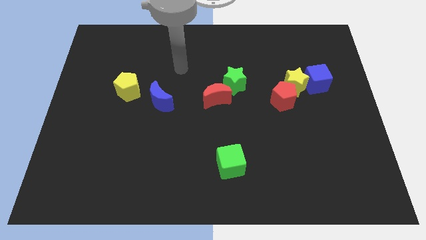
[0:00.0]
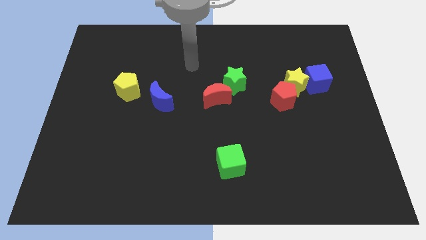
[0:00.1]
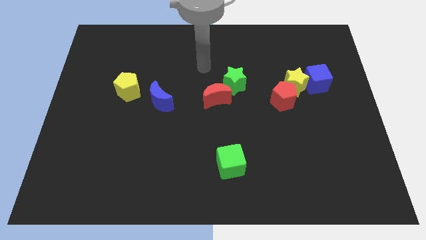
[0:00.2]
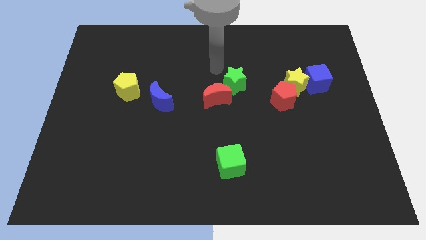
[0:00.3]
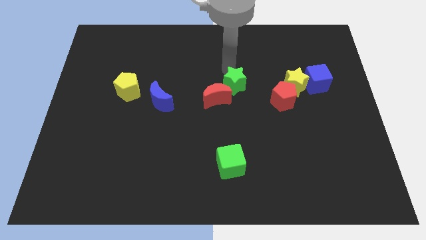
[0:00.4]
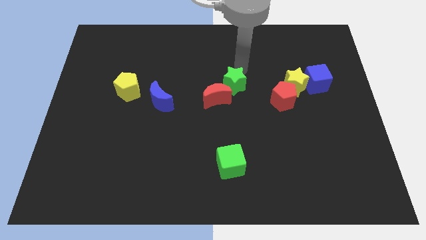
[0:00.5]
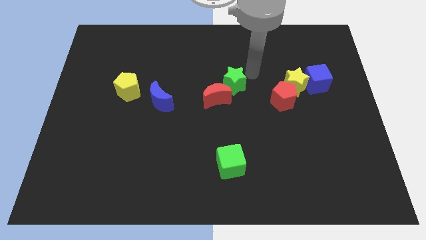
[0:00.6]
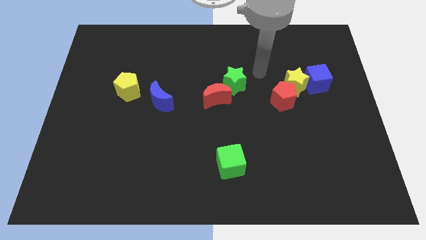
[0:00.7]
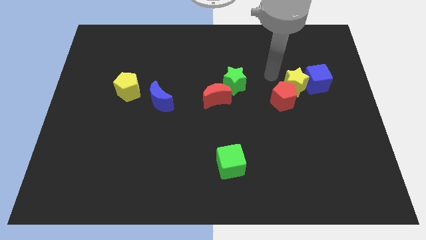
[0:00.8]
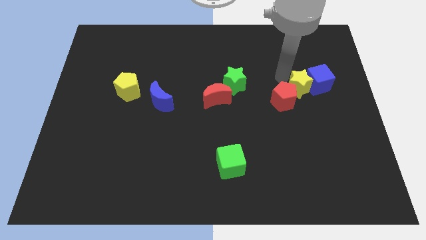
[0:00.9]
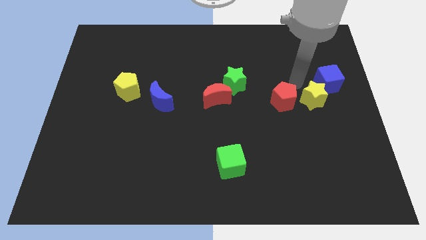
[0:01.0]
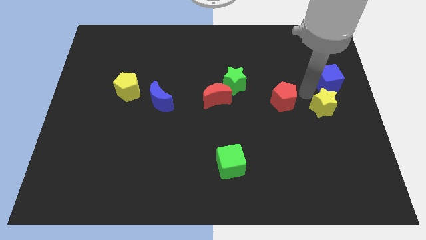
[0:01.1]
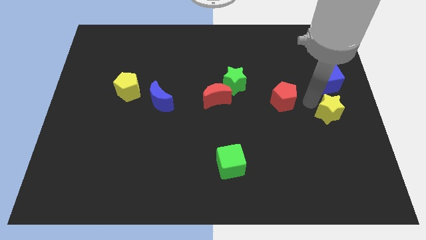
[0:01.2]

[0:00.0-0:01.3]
separate the red pentagon from the yellow star

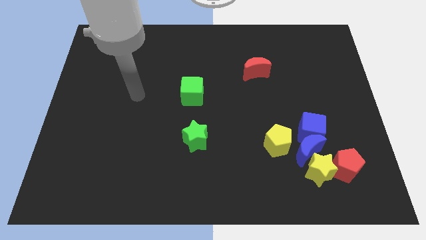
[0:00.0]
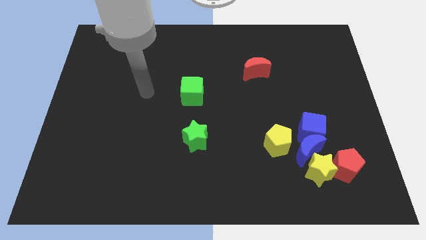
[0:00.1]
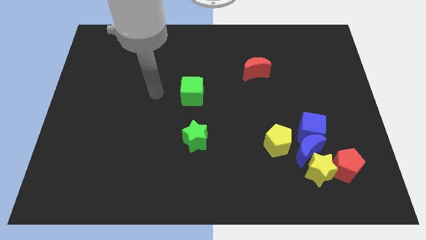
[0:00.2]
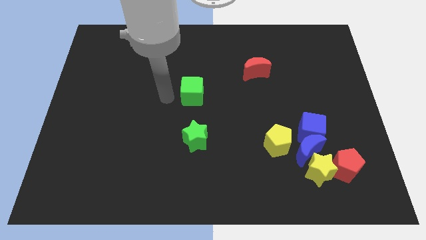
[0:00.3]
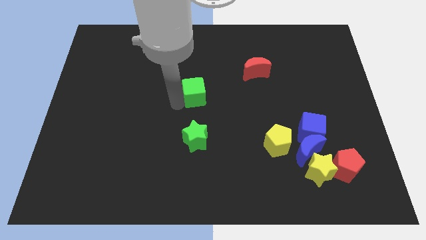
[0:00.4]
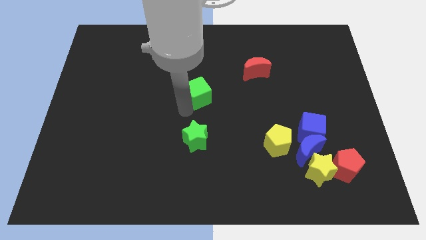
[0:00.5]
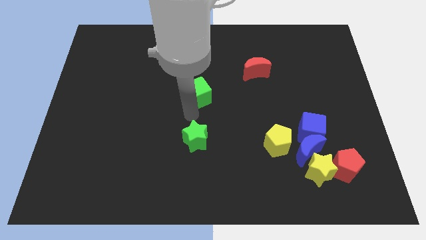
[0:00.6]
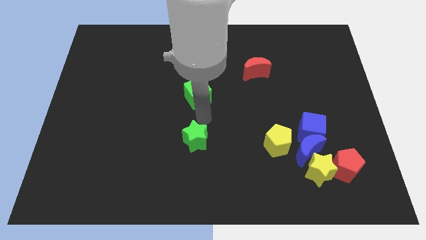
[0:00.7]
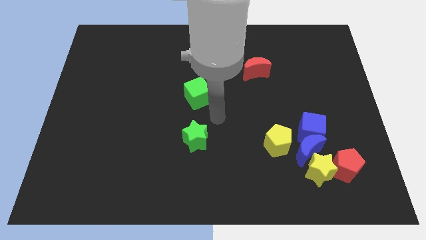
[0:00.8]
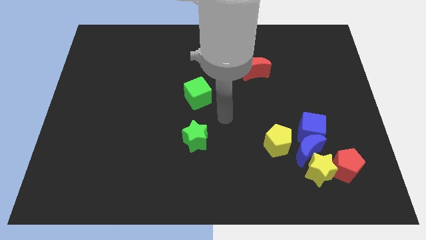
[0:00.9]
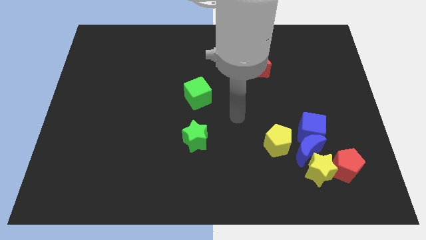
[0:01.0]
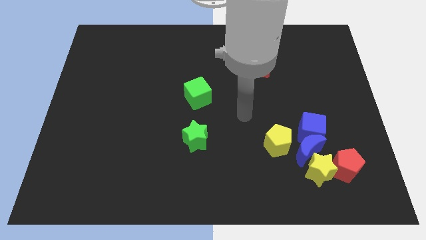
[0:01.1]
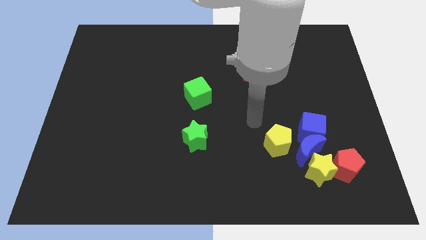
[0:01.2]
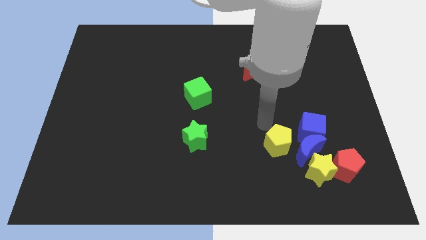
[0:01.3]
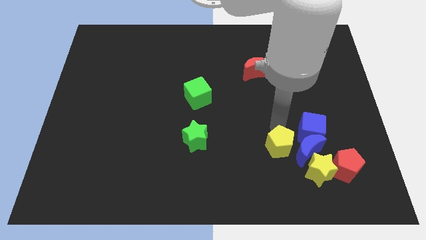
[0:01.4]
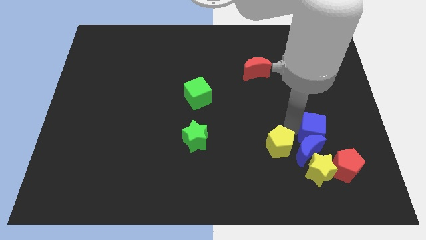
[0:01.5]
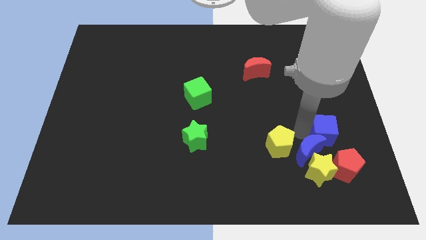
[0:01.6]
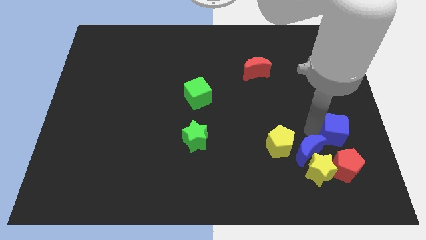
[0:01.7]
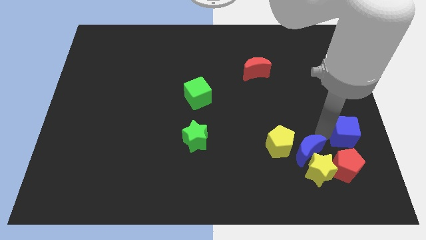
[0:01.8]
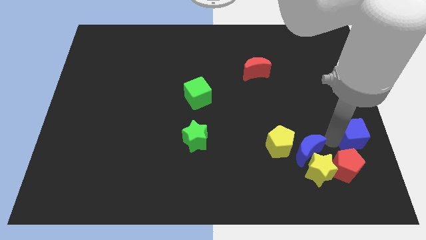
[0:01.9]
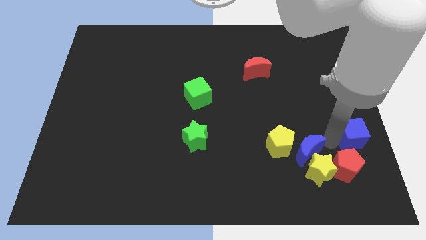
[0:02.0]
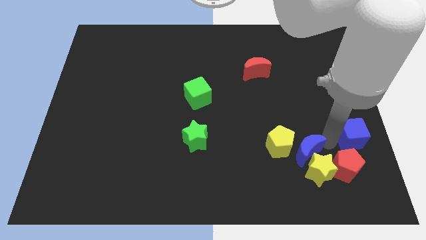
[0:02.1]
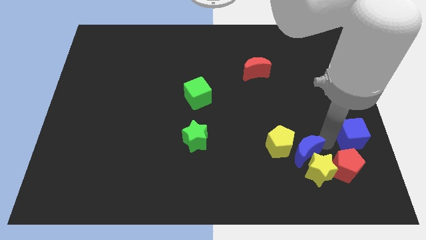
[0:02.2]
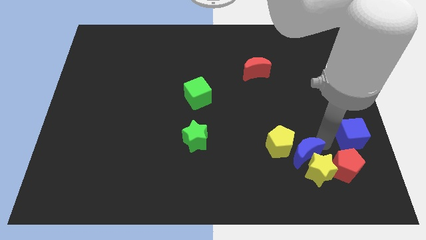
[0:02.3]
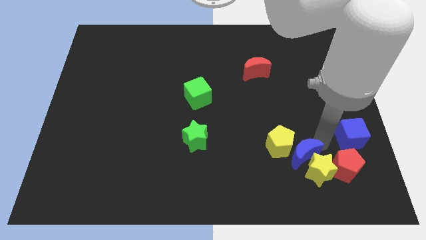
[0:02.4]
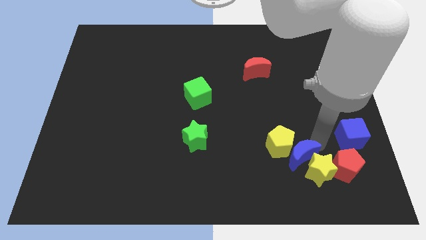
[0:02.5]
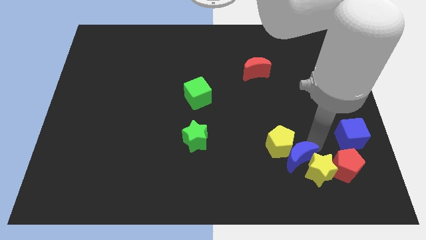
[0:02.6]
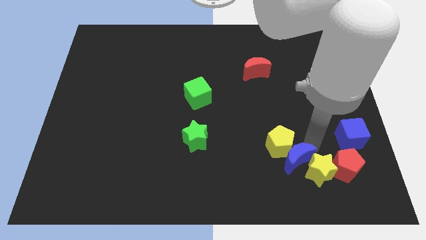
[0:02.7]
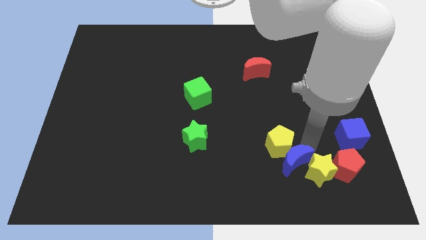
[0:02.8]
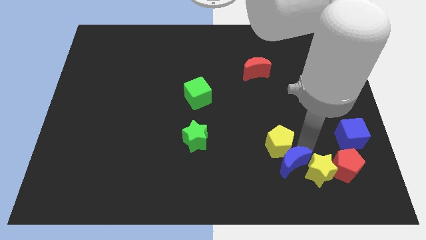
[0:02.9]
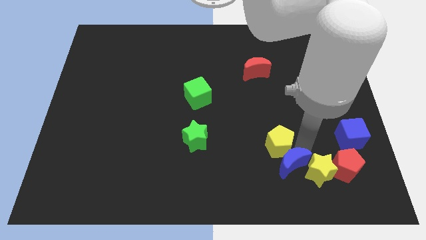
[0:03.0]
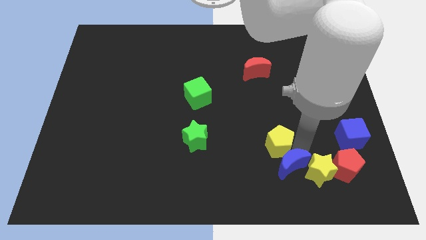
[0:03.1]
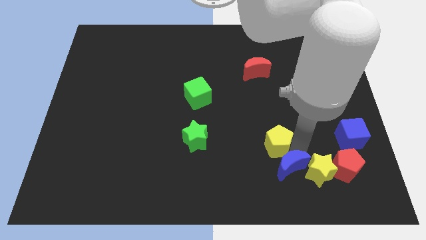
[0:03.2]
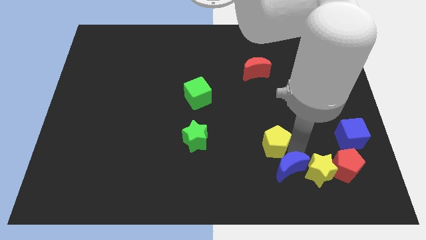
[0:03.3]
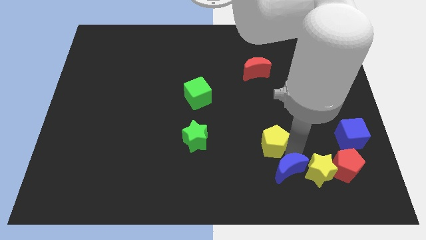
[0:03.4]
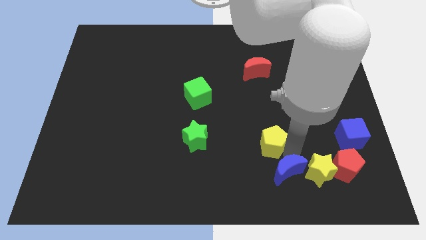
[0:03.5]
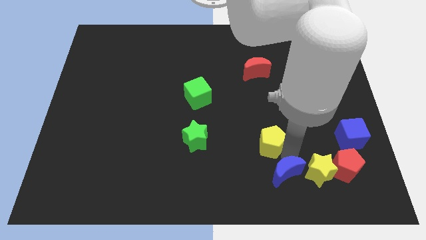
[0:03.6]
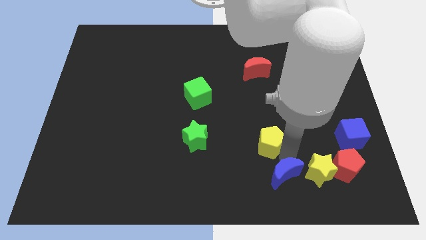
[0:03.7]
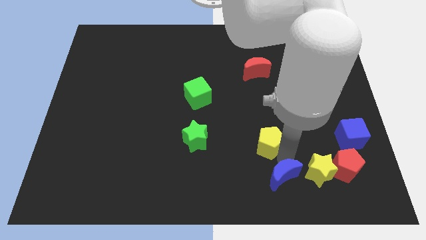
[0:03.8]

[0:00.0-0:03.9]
move the blue moon away from the clump

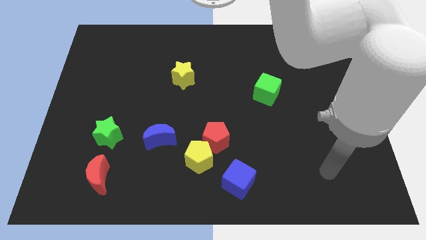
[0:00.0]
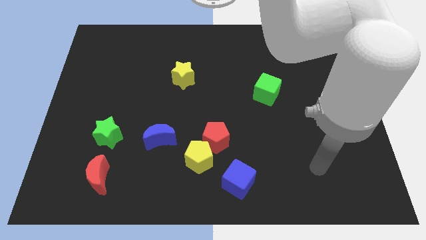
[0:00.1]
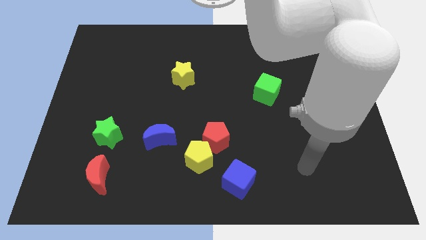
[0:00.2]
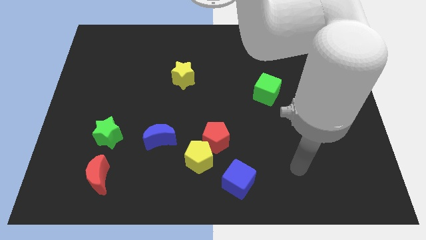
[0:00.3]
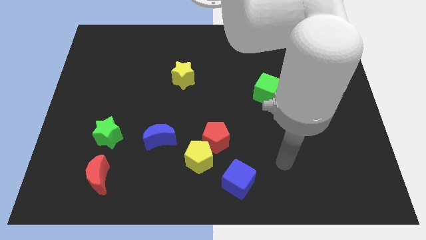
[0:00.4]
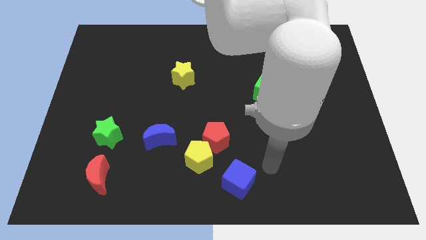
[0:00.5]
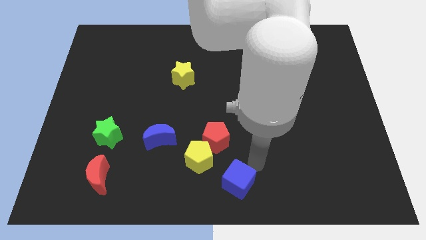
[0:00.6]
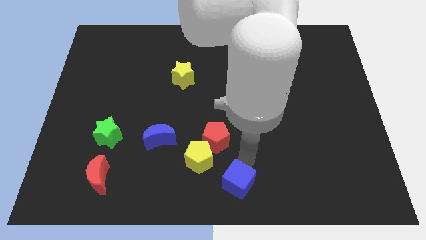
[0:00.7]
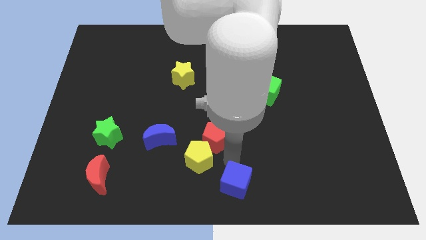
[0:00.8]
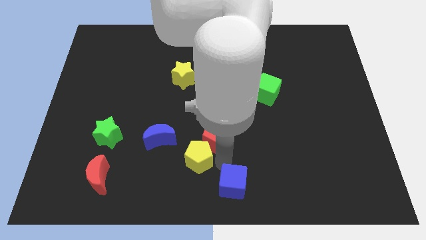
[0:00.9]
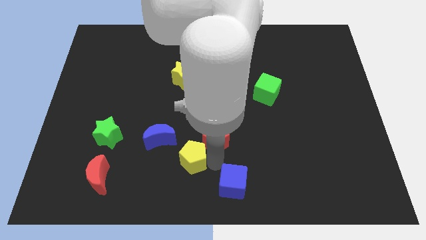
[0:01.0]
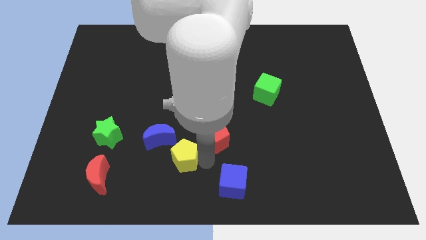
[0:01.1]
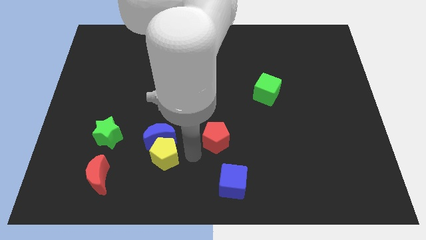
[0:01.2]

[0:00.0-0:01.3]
separate the red pentagon from the yellow pentagon

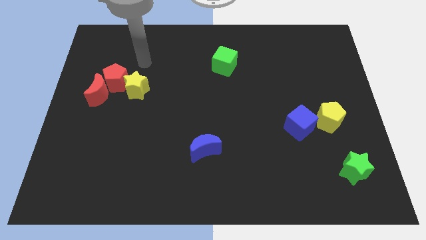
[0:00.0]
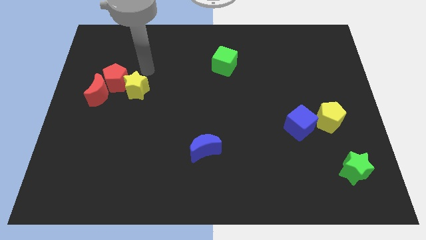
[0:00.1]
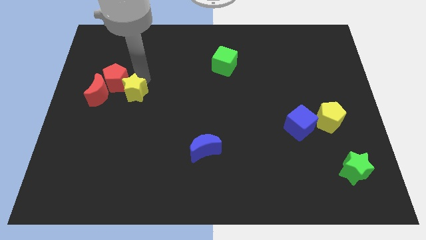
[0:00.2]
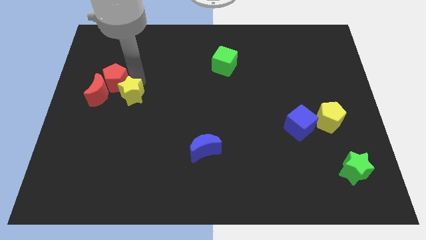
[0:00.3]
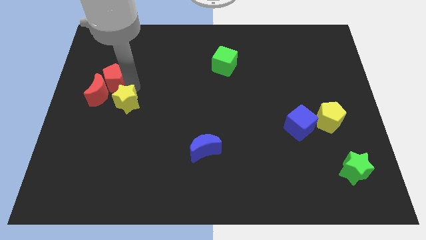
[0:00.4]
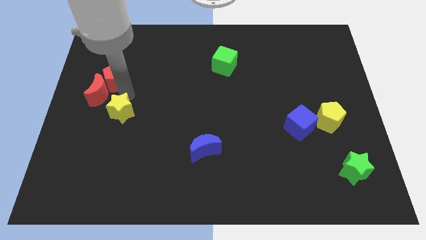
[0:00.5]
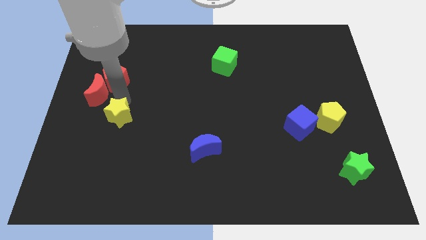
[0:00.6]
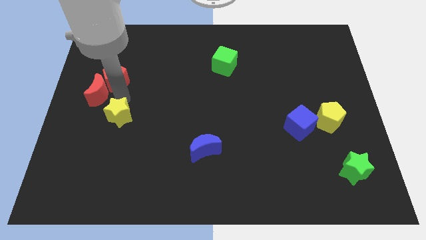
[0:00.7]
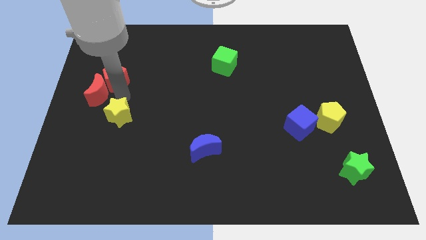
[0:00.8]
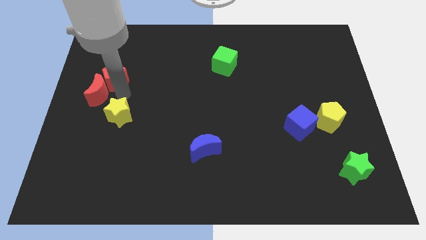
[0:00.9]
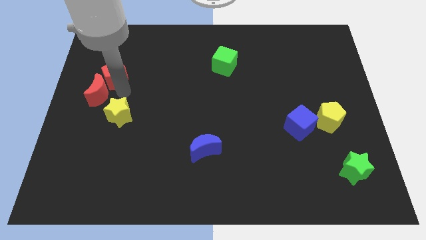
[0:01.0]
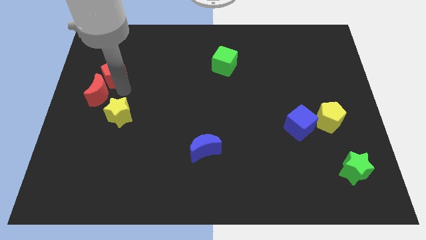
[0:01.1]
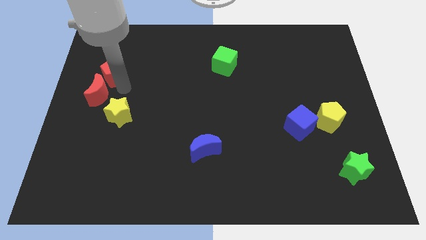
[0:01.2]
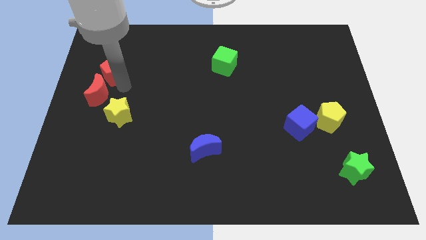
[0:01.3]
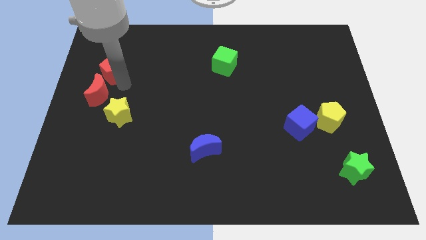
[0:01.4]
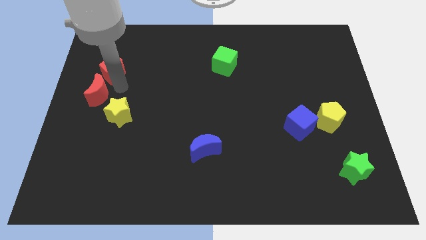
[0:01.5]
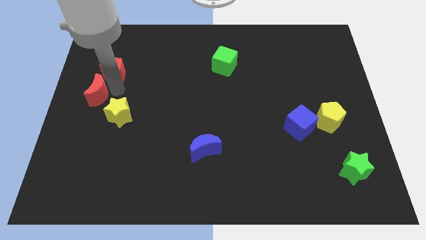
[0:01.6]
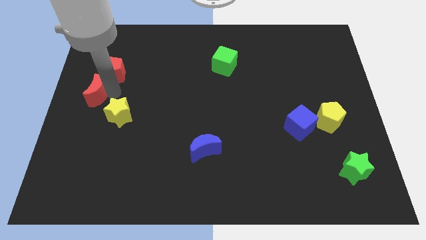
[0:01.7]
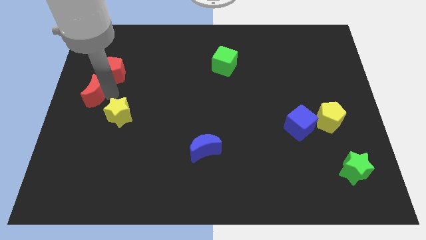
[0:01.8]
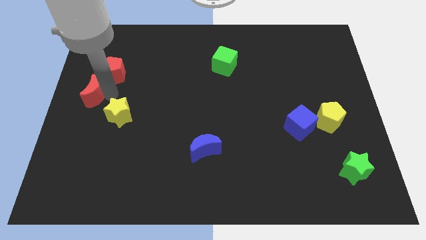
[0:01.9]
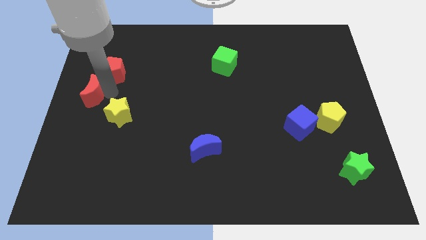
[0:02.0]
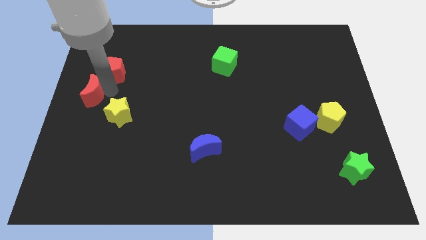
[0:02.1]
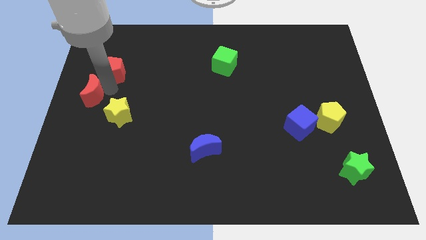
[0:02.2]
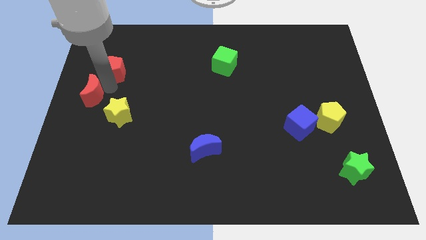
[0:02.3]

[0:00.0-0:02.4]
pull the red pentagon apart from the red moon and yellow star

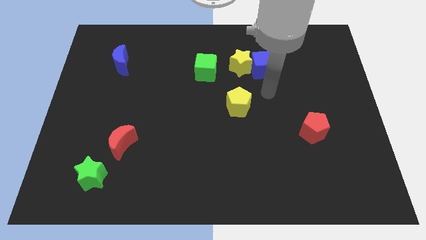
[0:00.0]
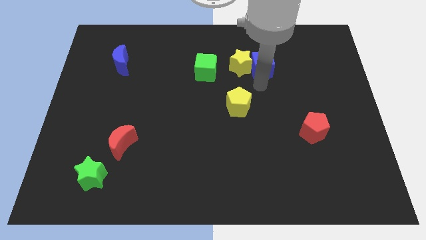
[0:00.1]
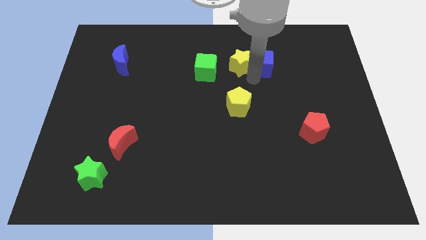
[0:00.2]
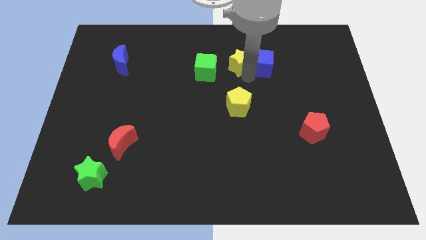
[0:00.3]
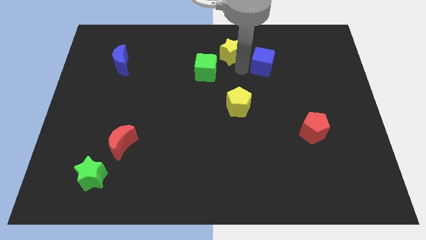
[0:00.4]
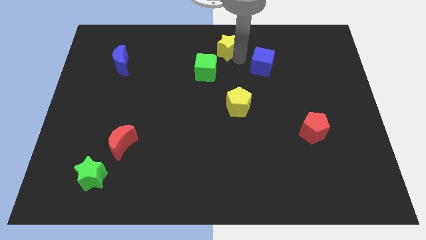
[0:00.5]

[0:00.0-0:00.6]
separate the blue cube from the yellow star
